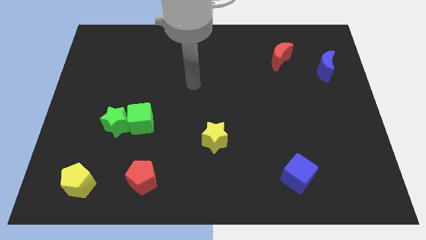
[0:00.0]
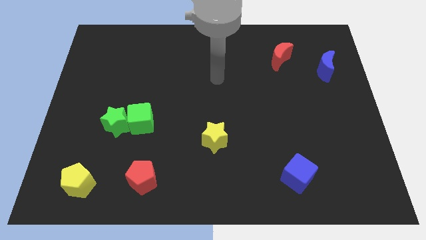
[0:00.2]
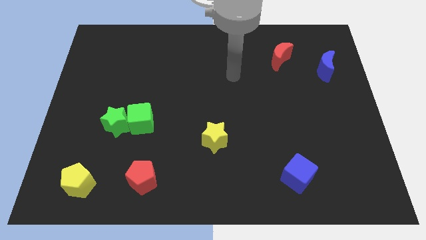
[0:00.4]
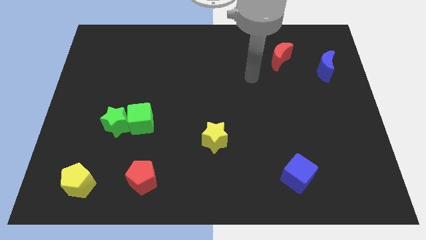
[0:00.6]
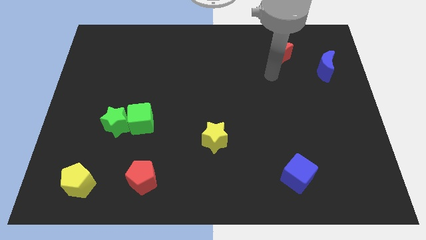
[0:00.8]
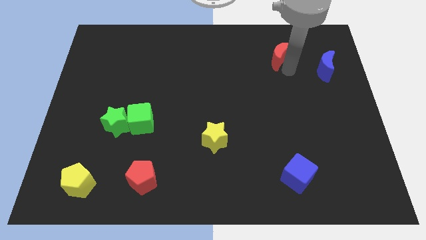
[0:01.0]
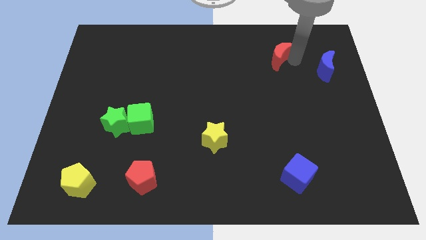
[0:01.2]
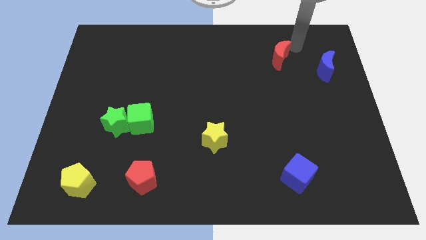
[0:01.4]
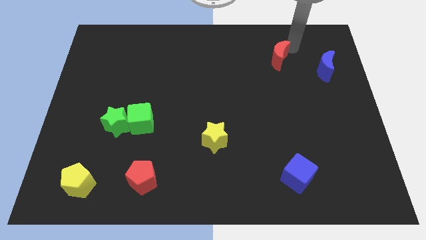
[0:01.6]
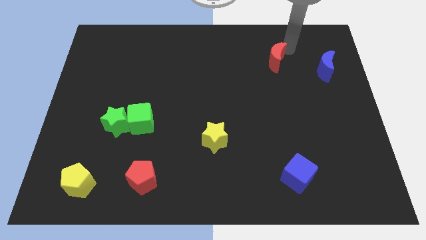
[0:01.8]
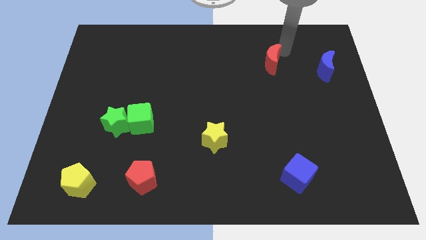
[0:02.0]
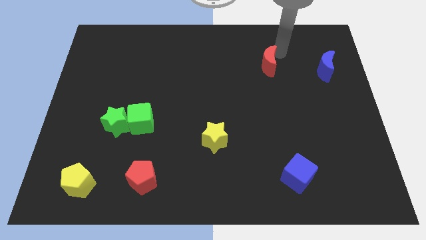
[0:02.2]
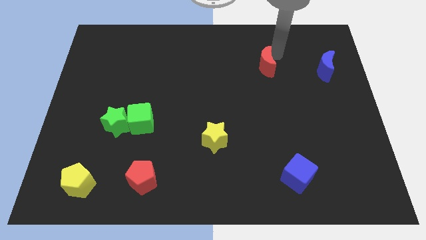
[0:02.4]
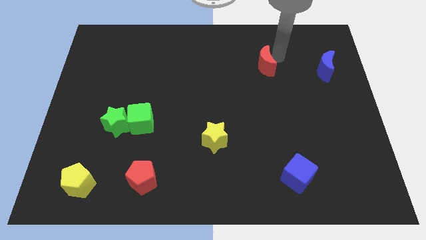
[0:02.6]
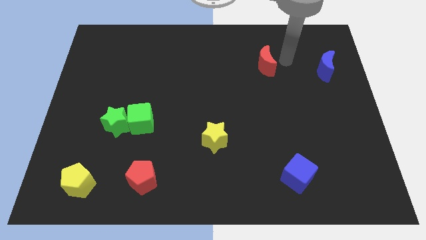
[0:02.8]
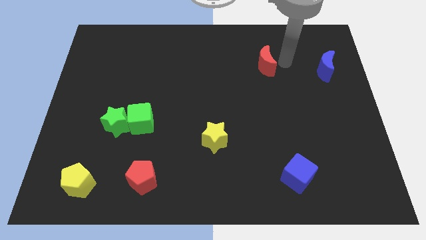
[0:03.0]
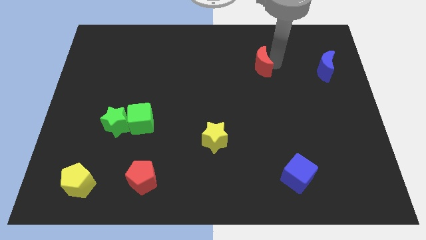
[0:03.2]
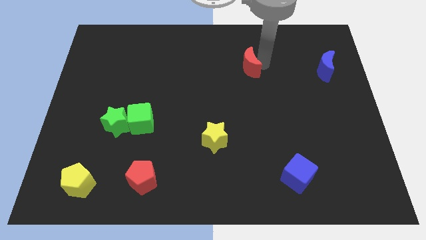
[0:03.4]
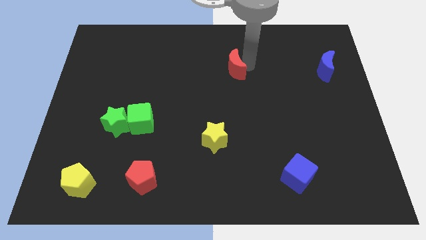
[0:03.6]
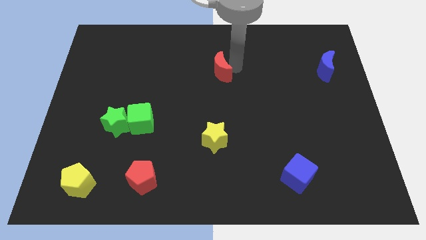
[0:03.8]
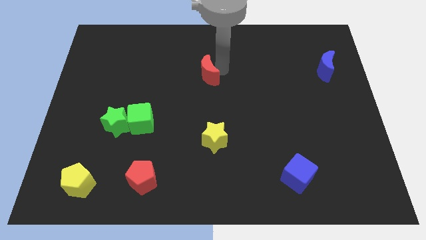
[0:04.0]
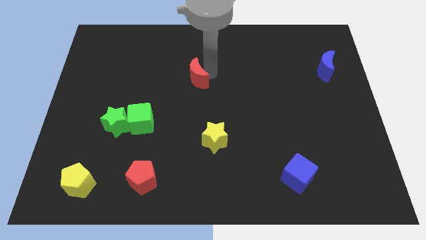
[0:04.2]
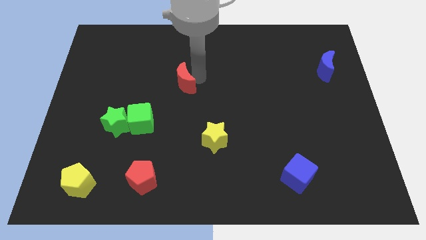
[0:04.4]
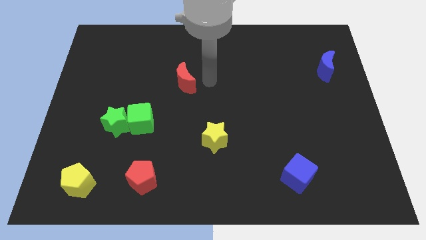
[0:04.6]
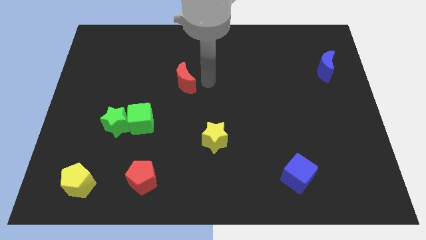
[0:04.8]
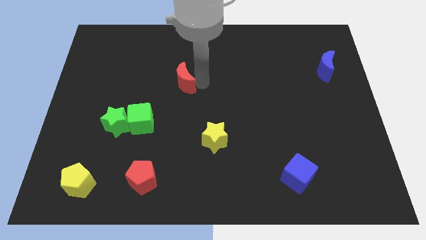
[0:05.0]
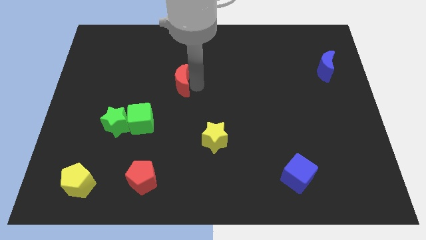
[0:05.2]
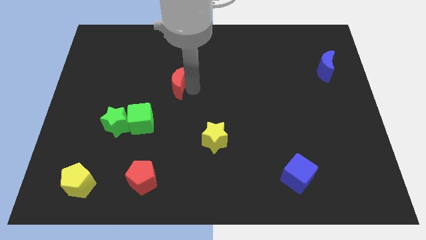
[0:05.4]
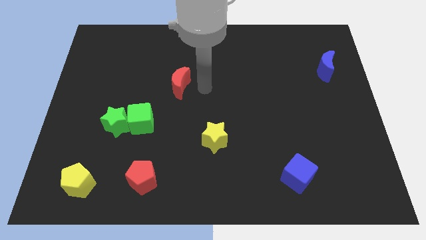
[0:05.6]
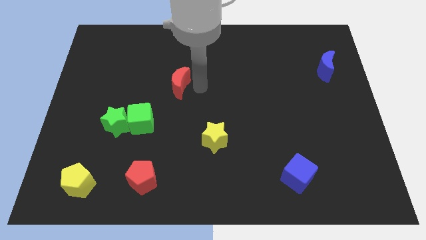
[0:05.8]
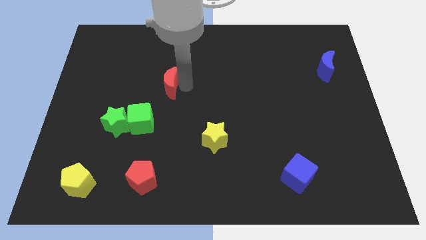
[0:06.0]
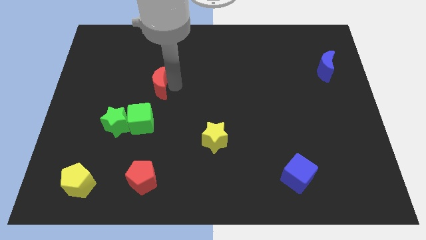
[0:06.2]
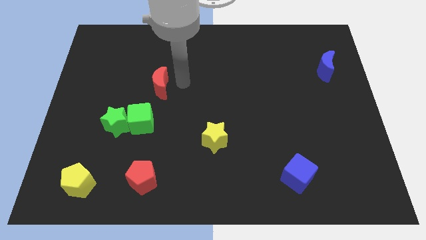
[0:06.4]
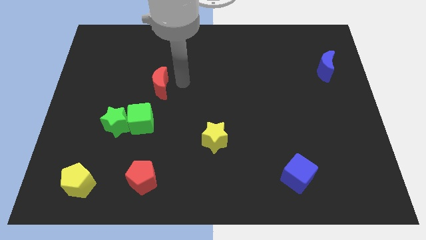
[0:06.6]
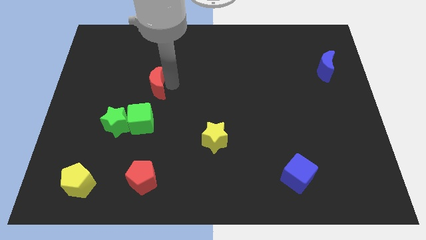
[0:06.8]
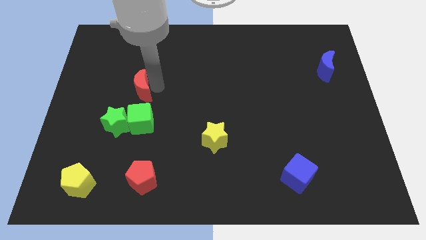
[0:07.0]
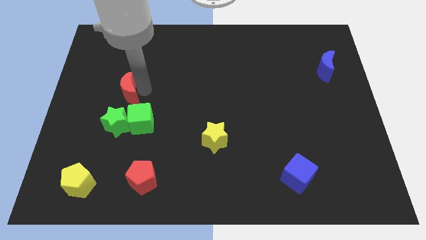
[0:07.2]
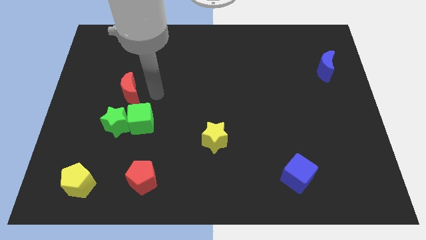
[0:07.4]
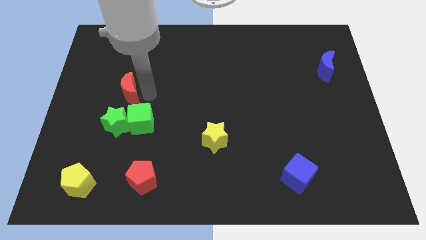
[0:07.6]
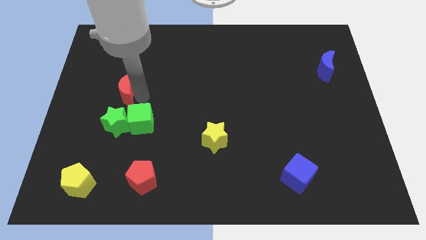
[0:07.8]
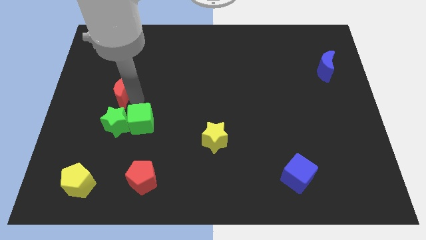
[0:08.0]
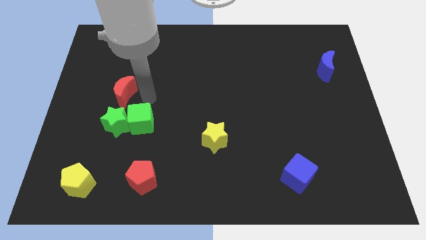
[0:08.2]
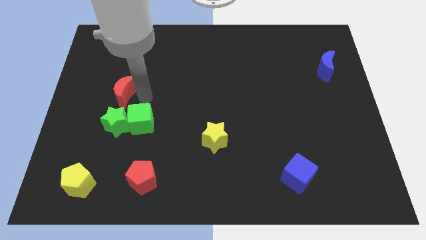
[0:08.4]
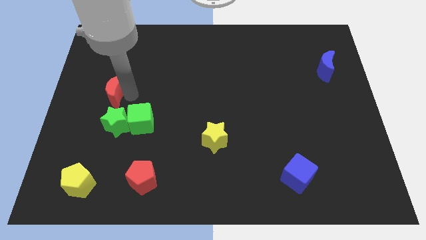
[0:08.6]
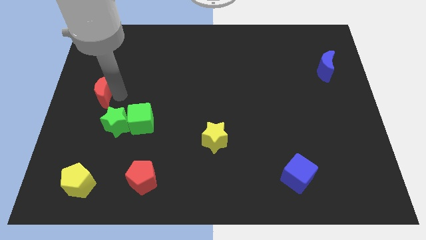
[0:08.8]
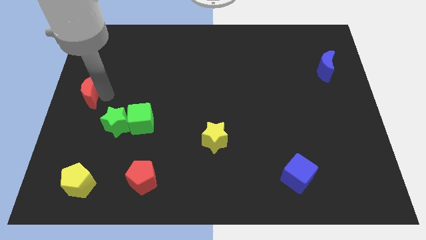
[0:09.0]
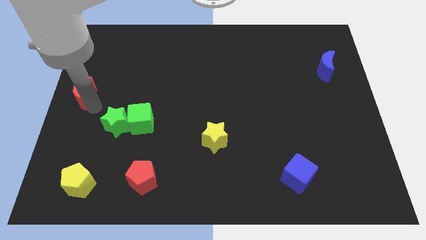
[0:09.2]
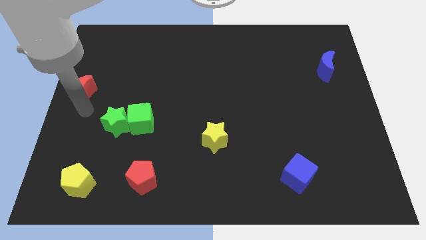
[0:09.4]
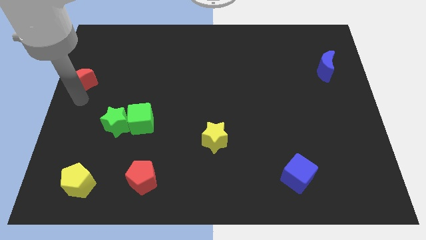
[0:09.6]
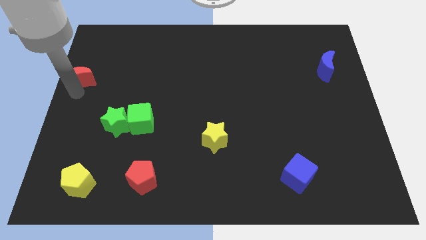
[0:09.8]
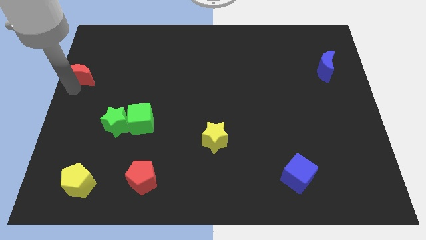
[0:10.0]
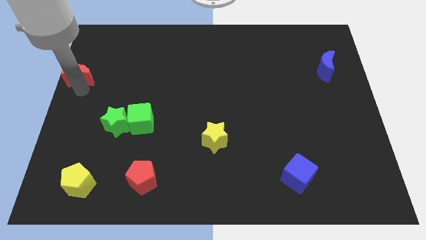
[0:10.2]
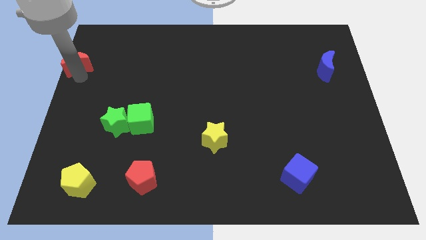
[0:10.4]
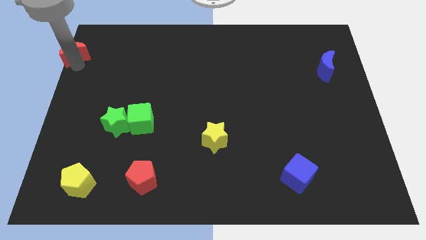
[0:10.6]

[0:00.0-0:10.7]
move the red moon to the top left of the board

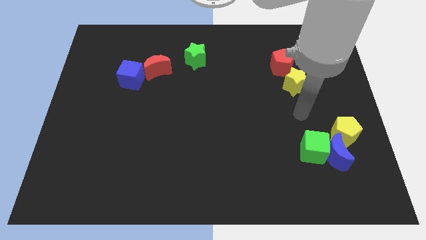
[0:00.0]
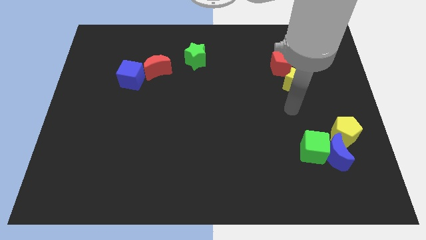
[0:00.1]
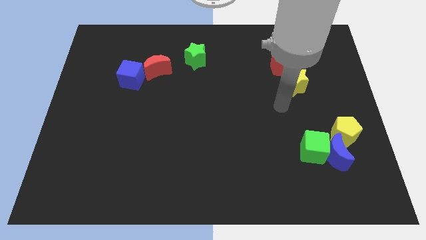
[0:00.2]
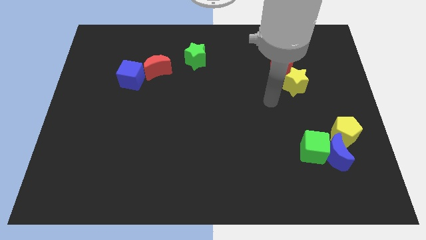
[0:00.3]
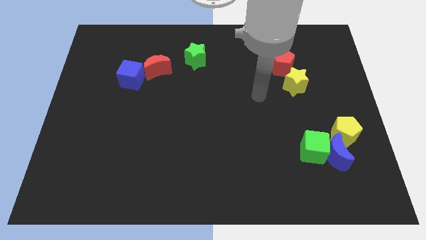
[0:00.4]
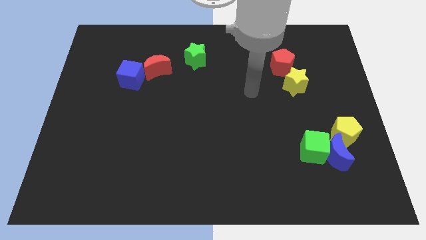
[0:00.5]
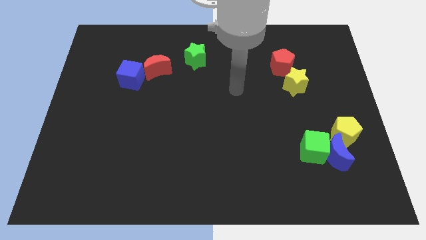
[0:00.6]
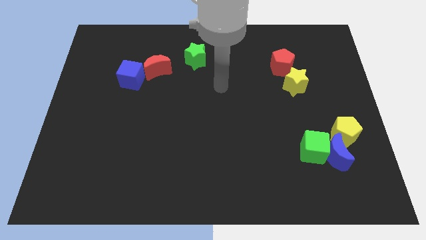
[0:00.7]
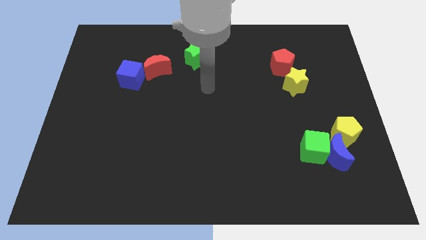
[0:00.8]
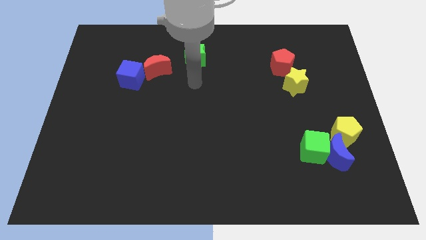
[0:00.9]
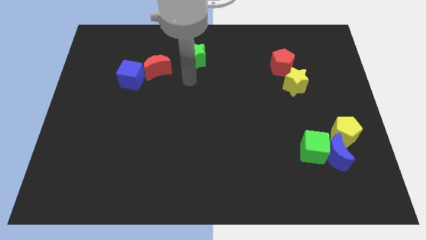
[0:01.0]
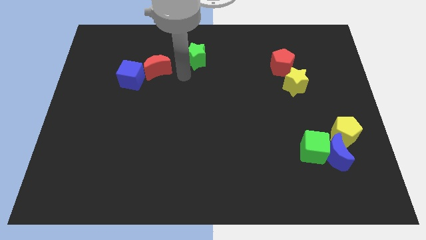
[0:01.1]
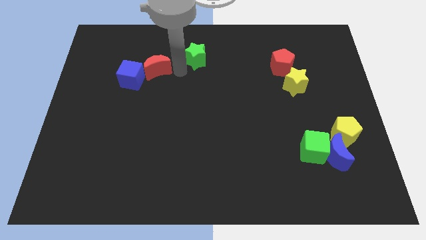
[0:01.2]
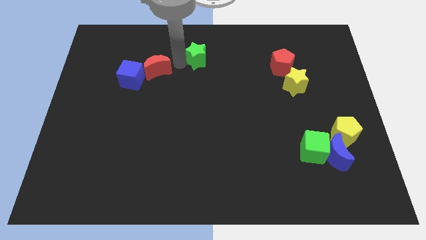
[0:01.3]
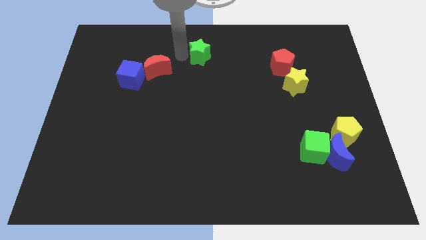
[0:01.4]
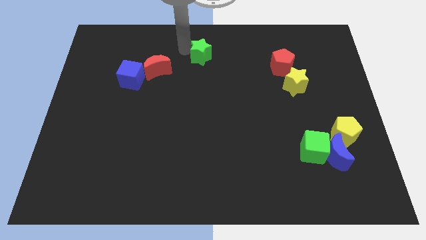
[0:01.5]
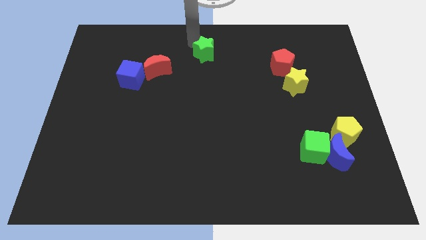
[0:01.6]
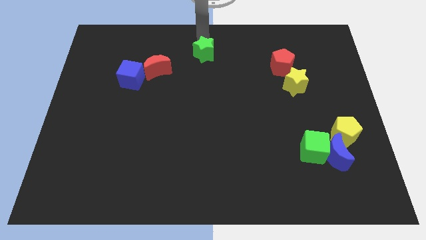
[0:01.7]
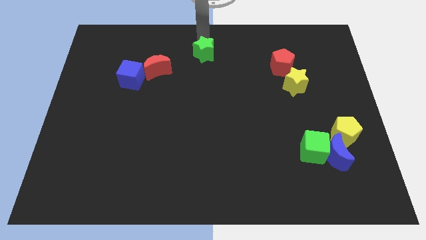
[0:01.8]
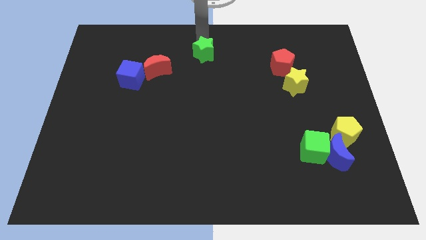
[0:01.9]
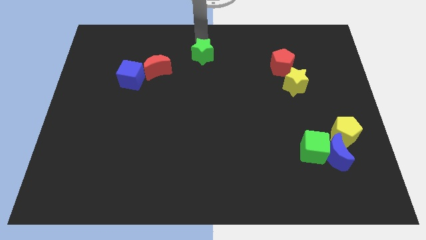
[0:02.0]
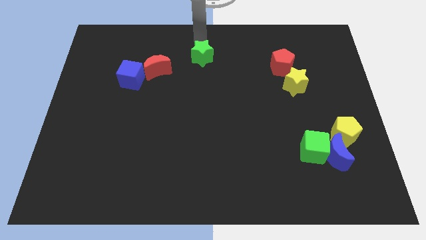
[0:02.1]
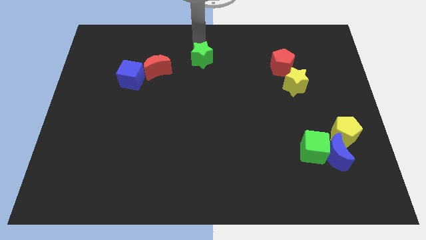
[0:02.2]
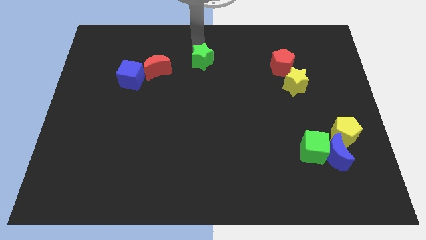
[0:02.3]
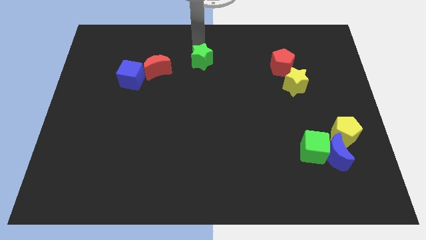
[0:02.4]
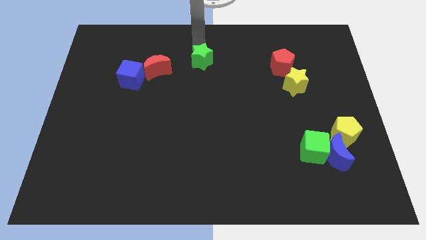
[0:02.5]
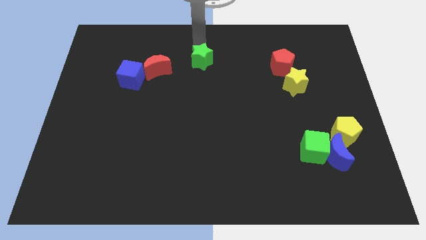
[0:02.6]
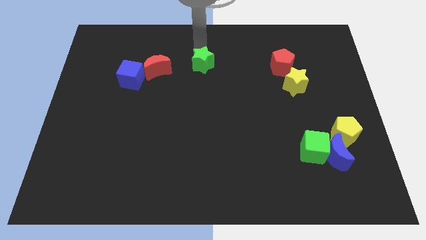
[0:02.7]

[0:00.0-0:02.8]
slide the green star to the center
